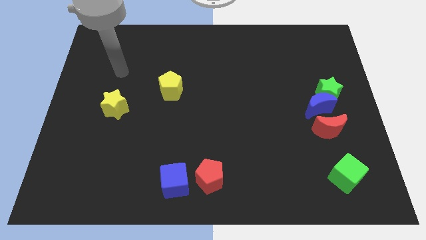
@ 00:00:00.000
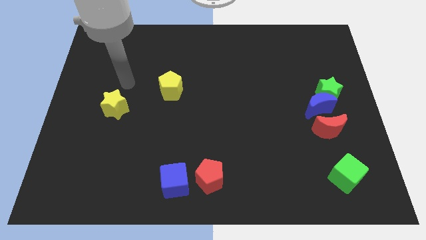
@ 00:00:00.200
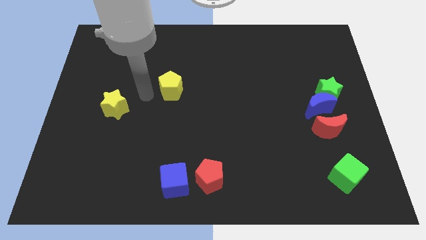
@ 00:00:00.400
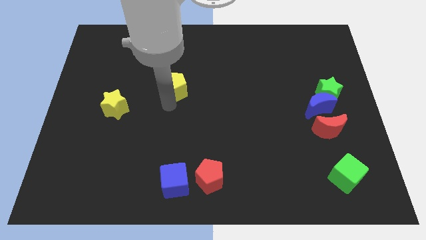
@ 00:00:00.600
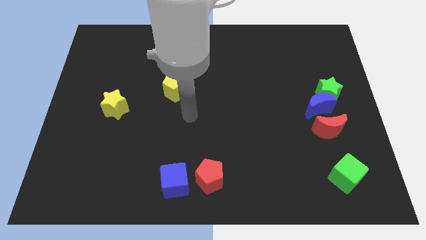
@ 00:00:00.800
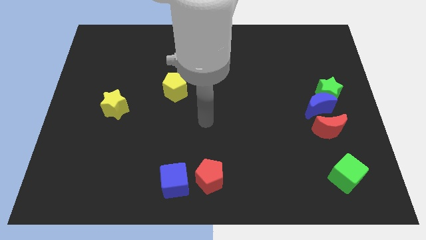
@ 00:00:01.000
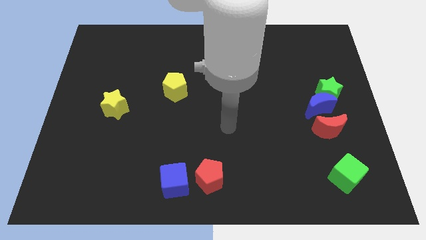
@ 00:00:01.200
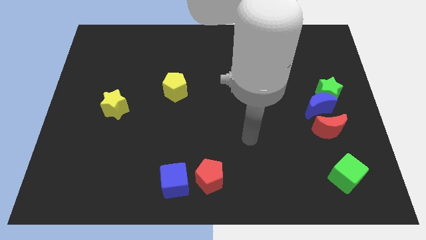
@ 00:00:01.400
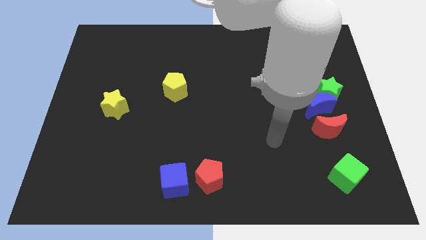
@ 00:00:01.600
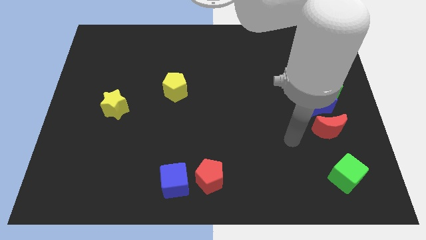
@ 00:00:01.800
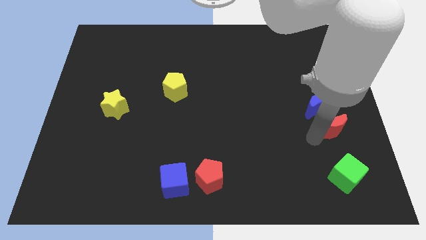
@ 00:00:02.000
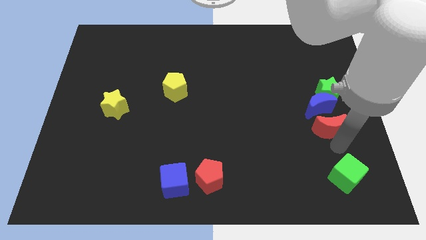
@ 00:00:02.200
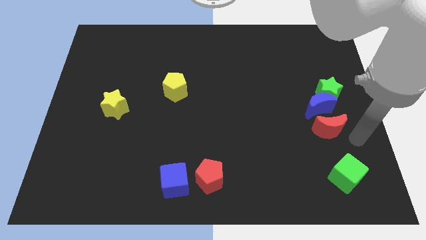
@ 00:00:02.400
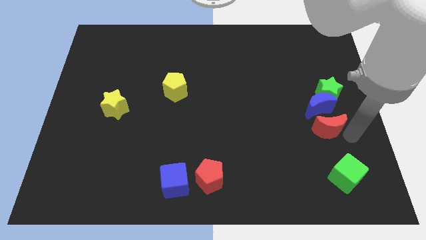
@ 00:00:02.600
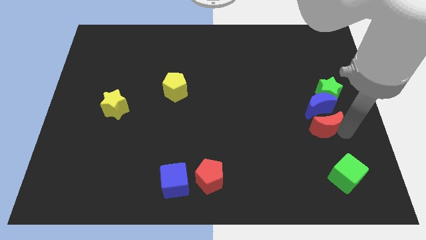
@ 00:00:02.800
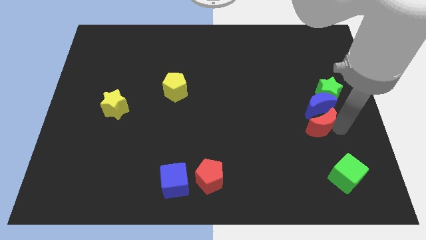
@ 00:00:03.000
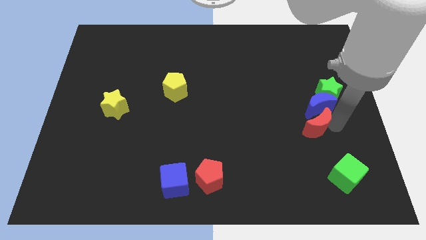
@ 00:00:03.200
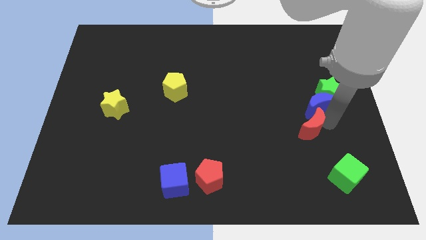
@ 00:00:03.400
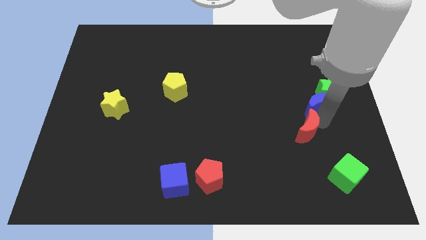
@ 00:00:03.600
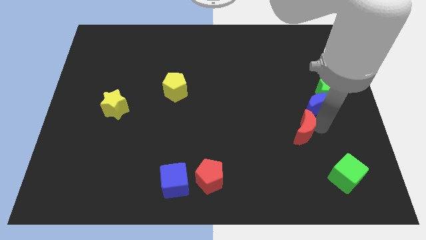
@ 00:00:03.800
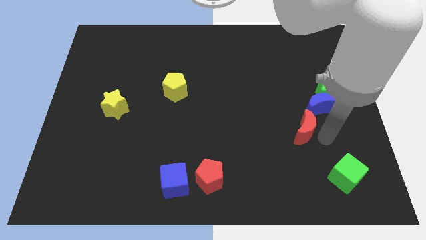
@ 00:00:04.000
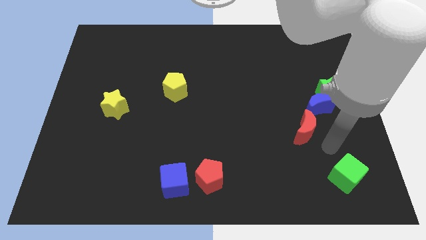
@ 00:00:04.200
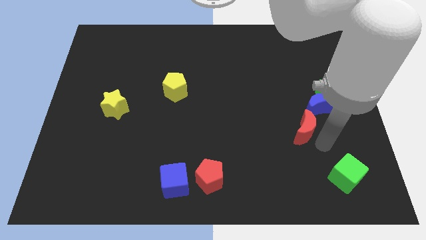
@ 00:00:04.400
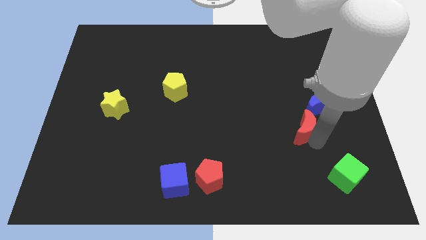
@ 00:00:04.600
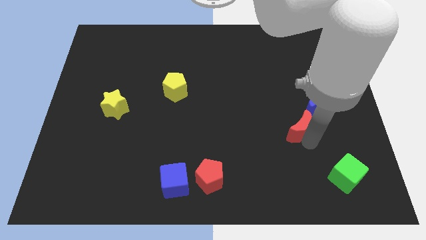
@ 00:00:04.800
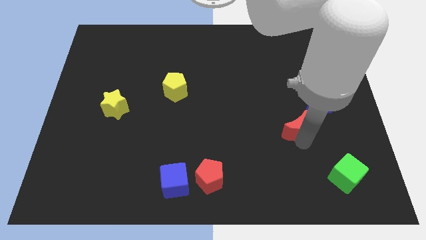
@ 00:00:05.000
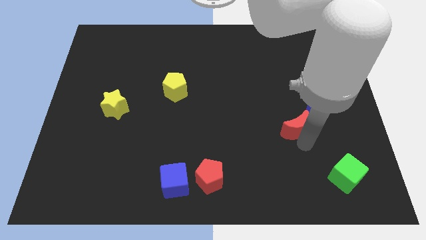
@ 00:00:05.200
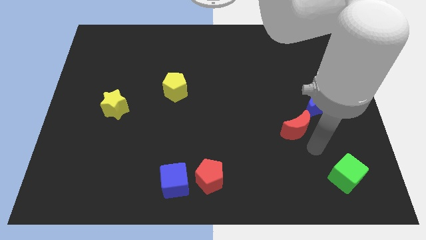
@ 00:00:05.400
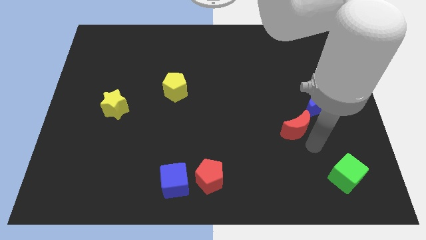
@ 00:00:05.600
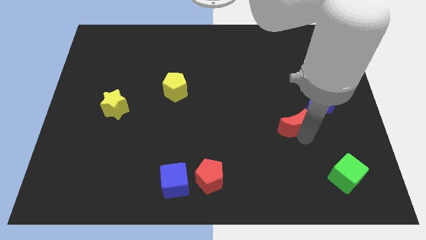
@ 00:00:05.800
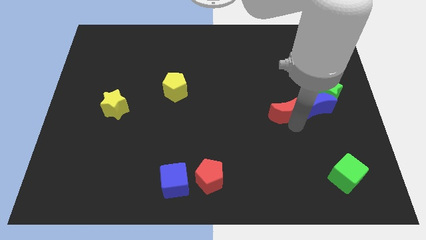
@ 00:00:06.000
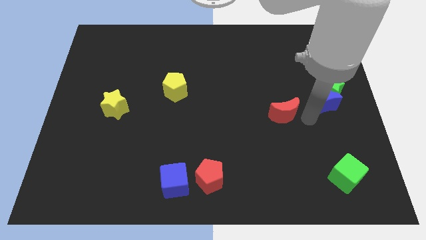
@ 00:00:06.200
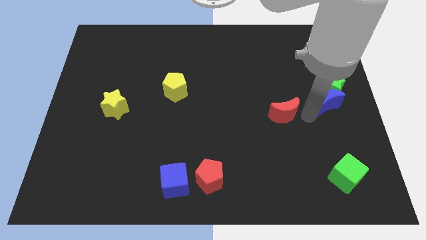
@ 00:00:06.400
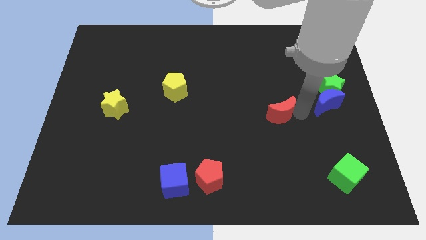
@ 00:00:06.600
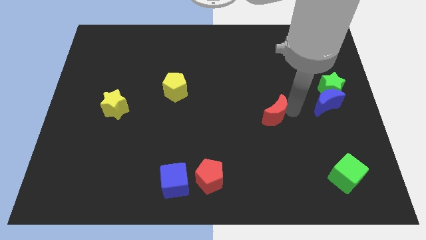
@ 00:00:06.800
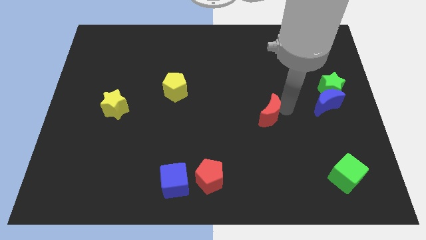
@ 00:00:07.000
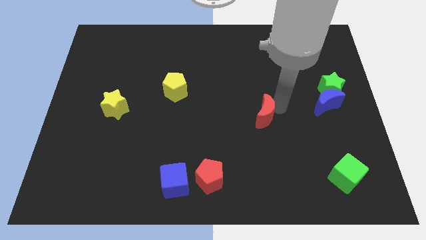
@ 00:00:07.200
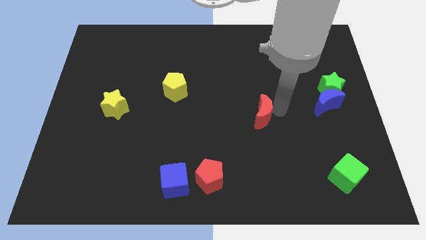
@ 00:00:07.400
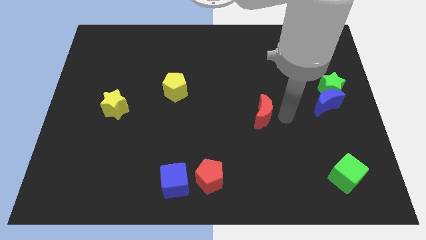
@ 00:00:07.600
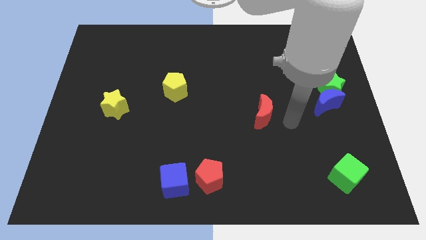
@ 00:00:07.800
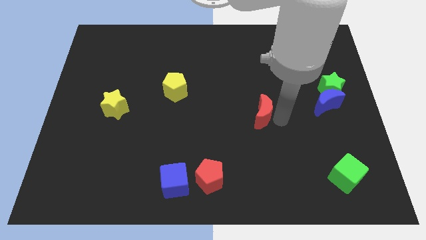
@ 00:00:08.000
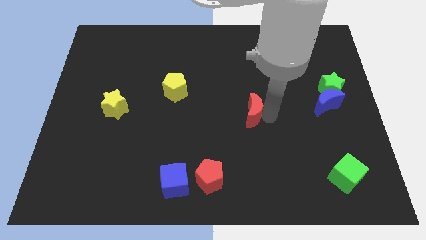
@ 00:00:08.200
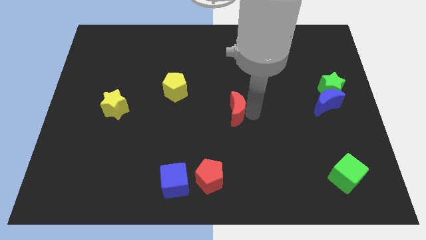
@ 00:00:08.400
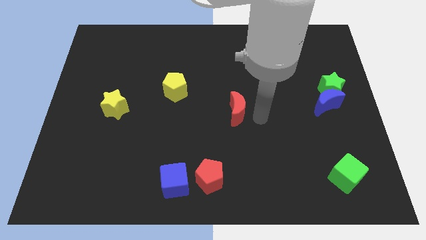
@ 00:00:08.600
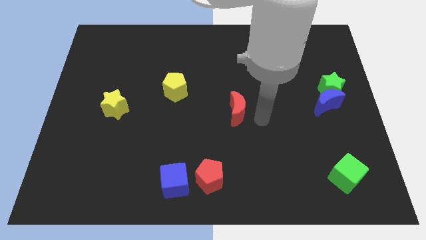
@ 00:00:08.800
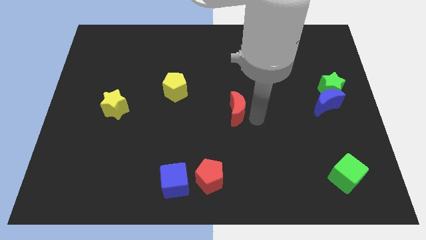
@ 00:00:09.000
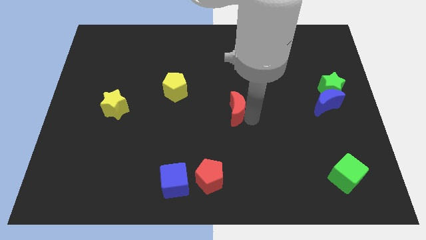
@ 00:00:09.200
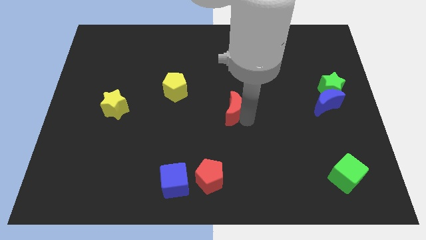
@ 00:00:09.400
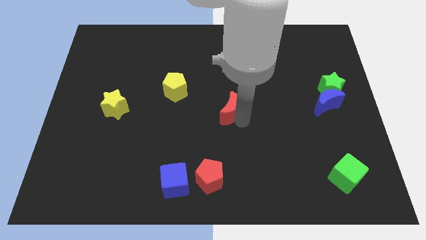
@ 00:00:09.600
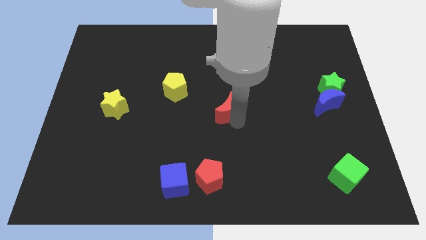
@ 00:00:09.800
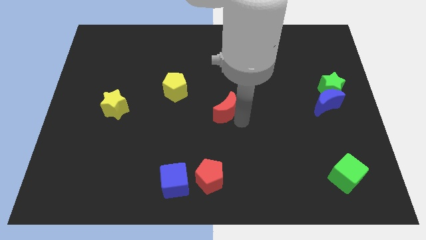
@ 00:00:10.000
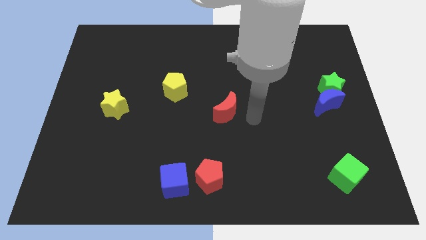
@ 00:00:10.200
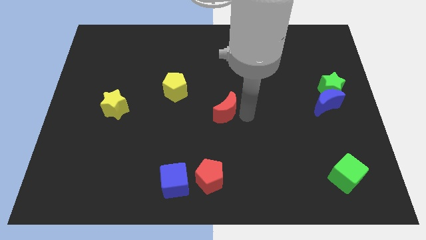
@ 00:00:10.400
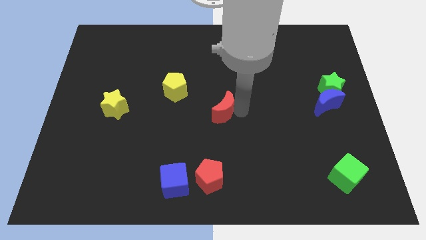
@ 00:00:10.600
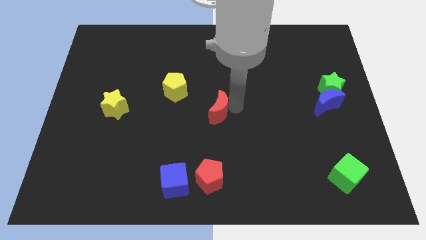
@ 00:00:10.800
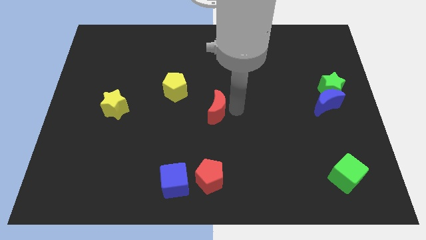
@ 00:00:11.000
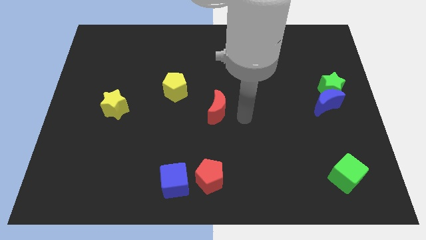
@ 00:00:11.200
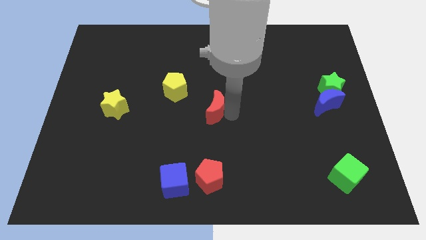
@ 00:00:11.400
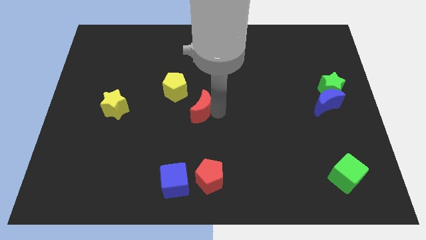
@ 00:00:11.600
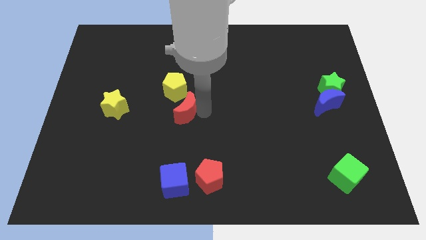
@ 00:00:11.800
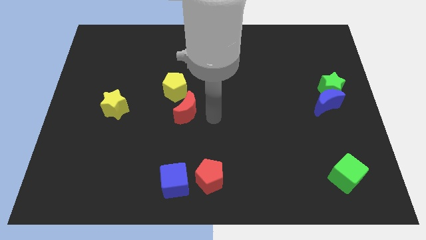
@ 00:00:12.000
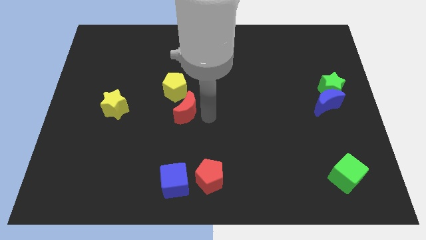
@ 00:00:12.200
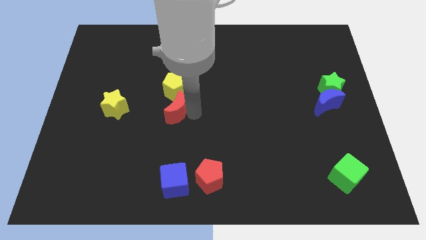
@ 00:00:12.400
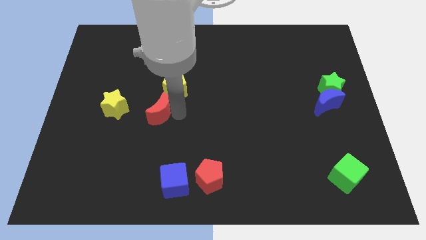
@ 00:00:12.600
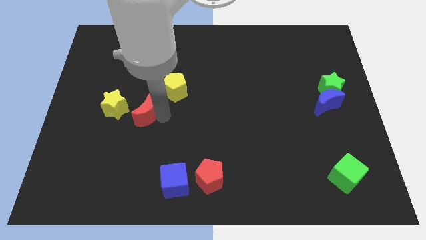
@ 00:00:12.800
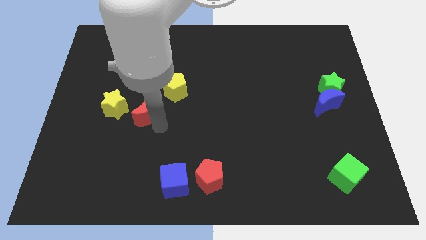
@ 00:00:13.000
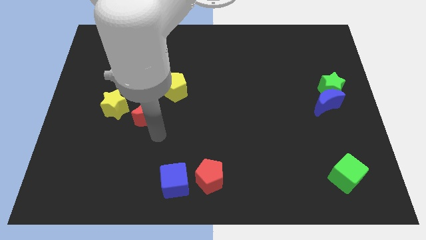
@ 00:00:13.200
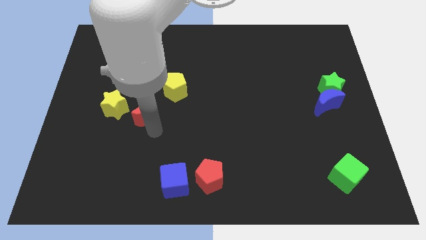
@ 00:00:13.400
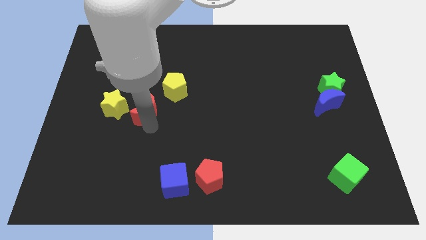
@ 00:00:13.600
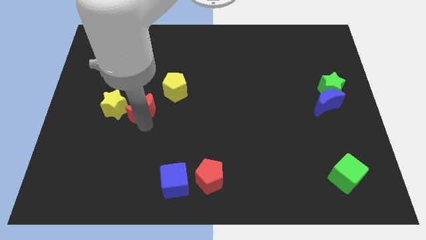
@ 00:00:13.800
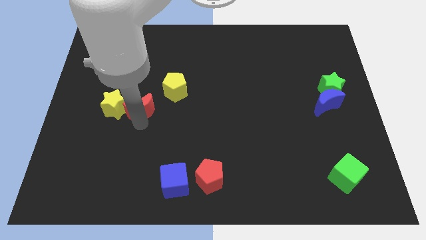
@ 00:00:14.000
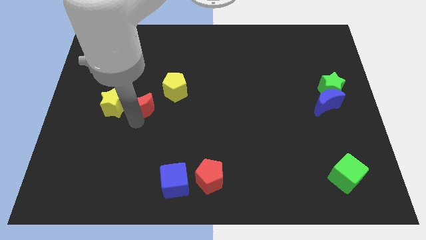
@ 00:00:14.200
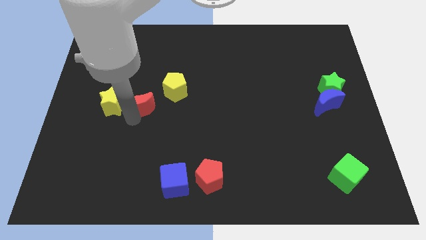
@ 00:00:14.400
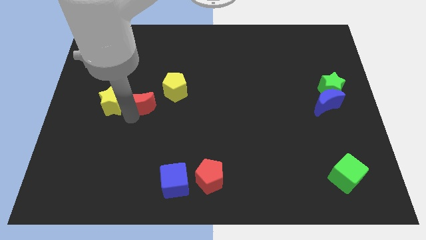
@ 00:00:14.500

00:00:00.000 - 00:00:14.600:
slide the red moon to the left side of the yellow pentagon

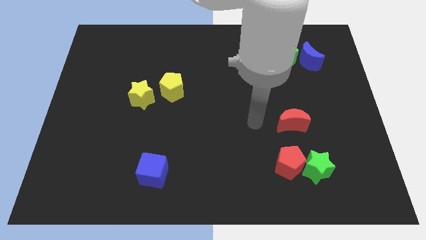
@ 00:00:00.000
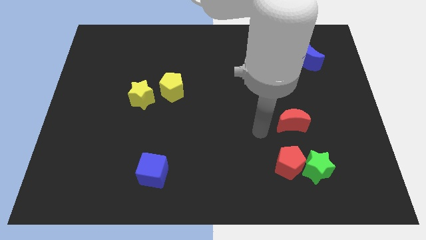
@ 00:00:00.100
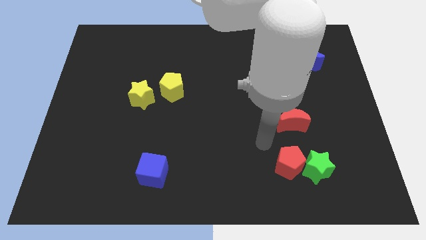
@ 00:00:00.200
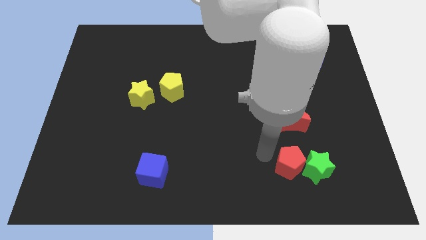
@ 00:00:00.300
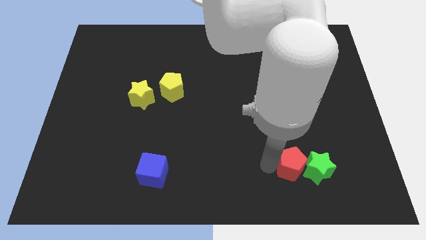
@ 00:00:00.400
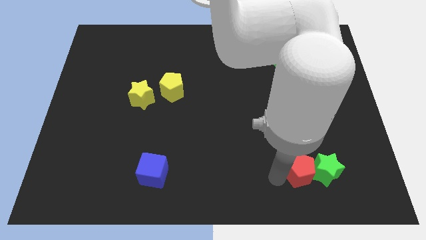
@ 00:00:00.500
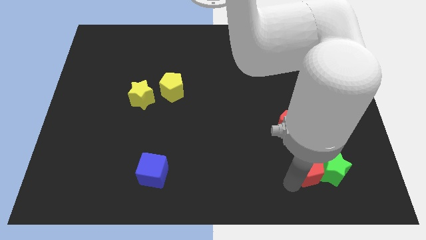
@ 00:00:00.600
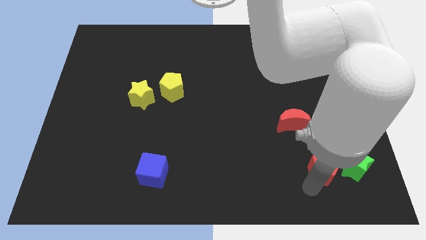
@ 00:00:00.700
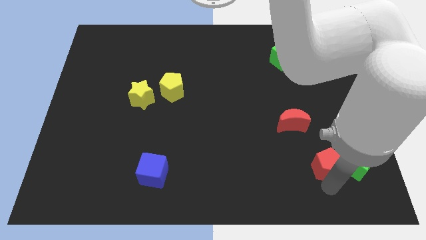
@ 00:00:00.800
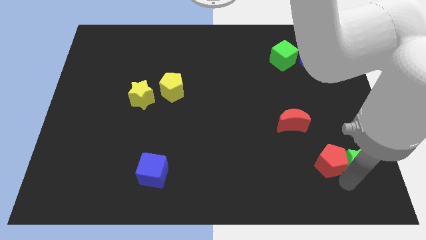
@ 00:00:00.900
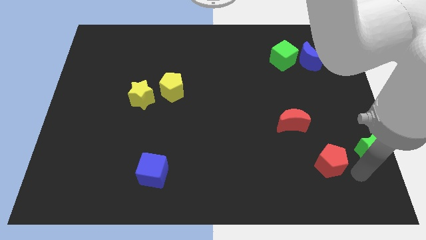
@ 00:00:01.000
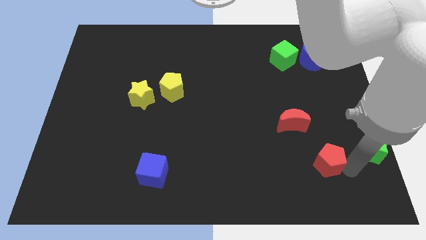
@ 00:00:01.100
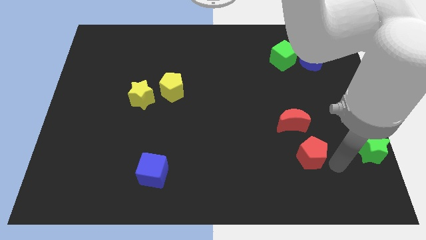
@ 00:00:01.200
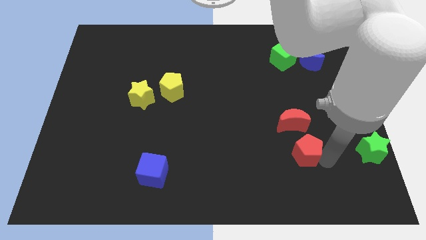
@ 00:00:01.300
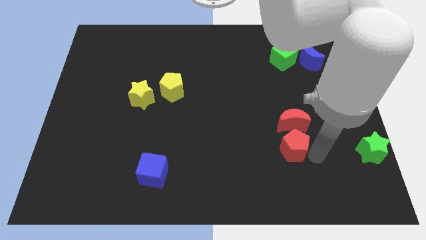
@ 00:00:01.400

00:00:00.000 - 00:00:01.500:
push the red pentagon diagonally down and to the left of the red moon
